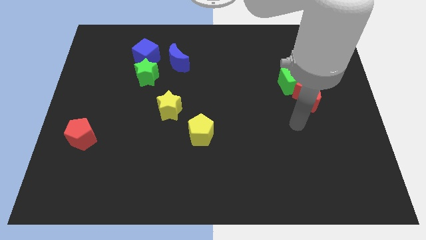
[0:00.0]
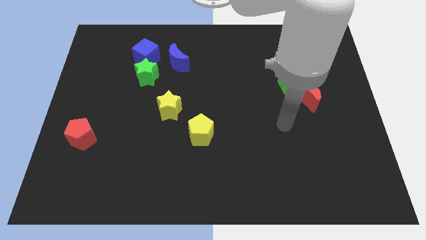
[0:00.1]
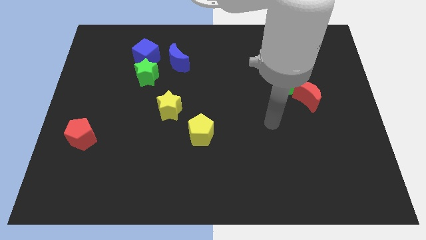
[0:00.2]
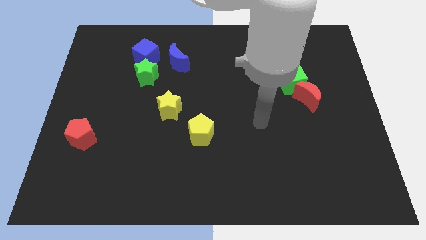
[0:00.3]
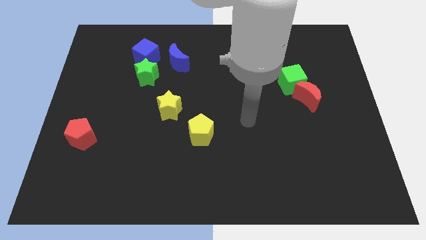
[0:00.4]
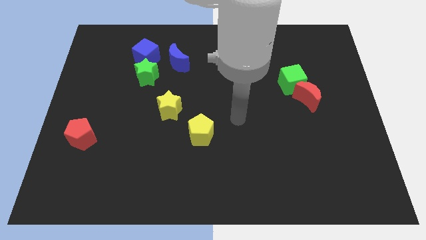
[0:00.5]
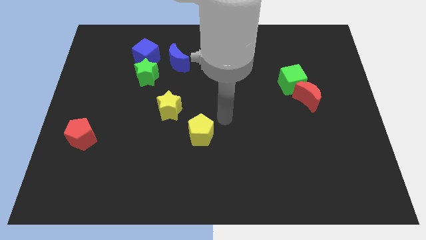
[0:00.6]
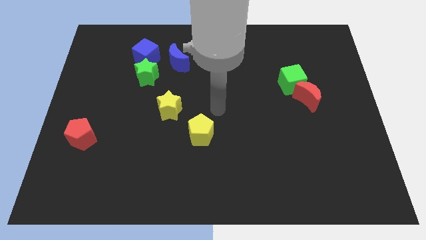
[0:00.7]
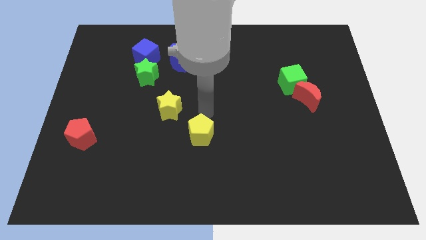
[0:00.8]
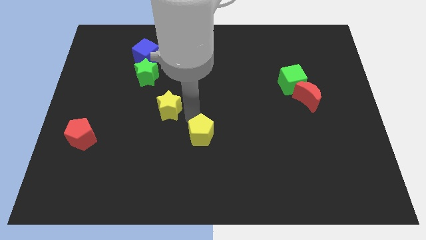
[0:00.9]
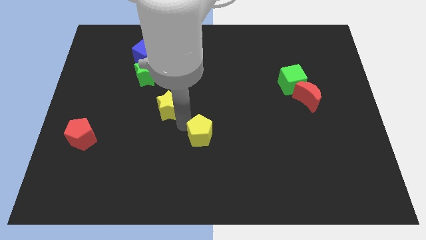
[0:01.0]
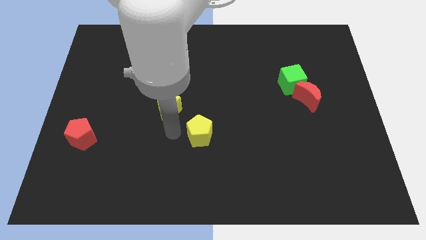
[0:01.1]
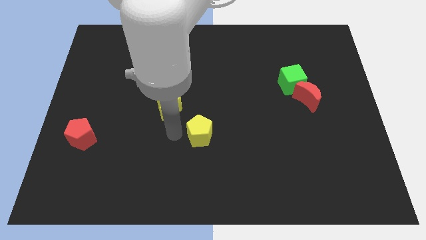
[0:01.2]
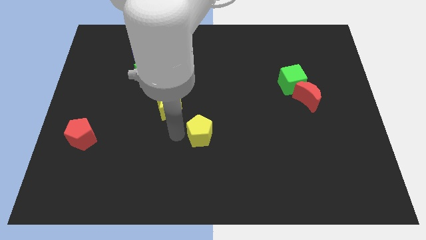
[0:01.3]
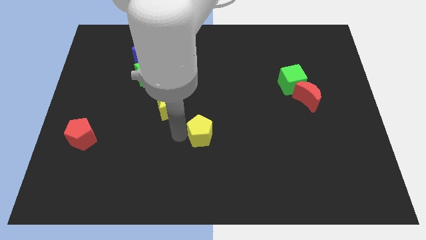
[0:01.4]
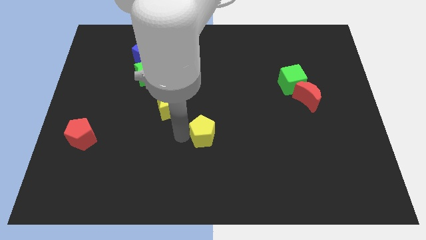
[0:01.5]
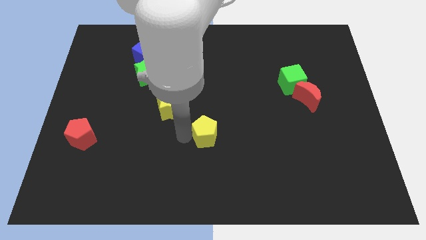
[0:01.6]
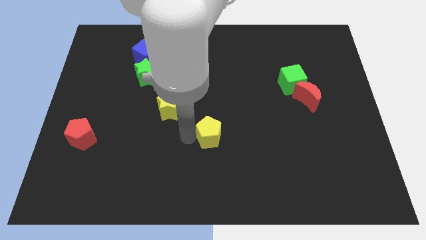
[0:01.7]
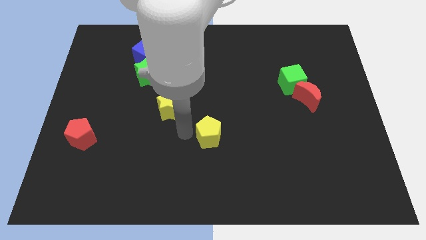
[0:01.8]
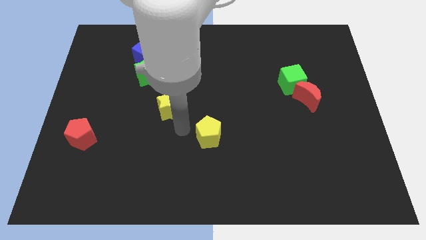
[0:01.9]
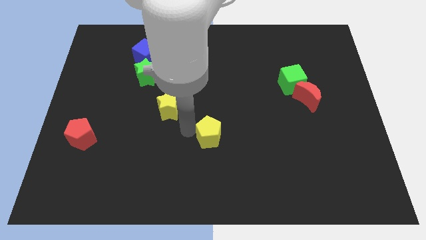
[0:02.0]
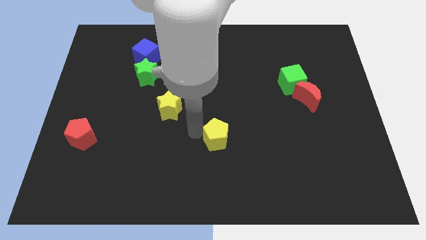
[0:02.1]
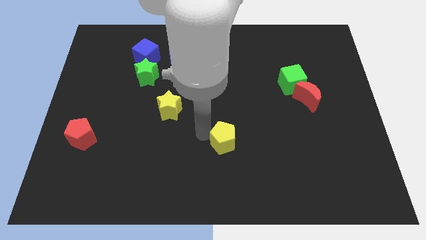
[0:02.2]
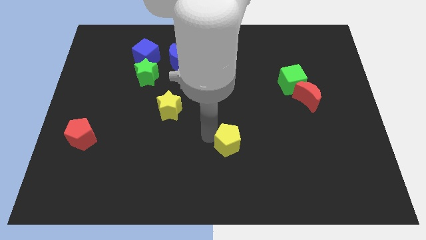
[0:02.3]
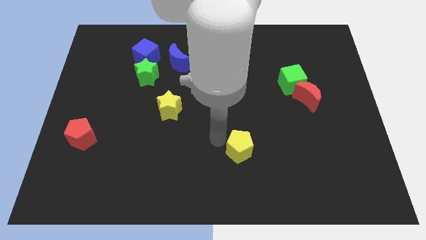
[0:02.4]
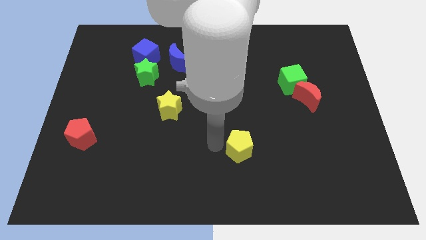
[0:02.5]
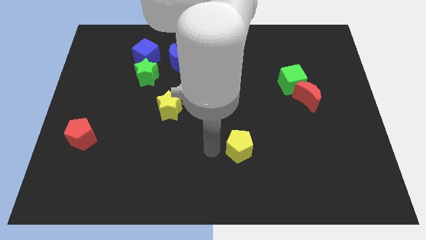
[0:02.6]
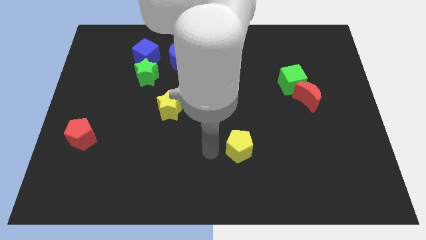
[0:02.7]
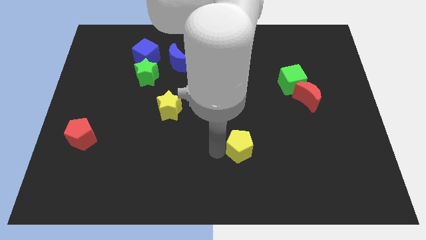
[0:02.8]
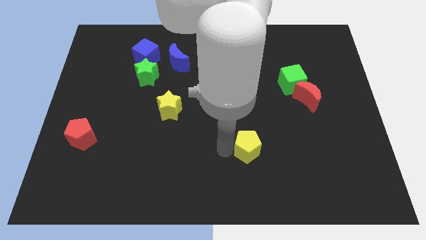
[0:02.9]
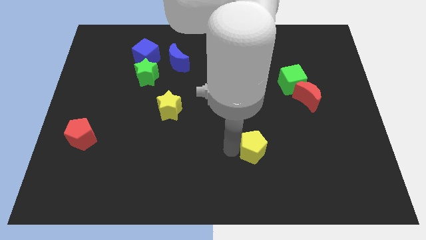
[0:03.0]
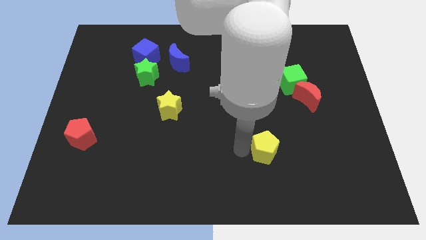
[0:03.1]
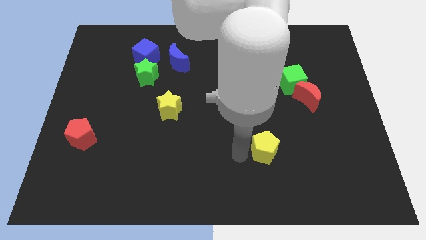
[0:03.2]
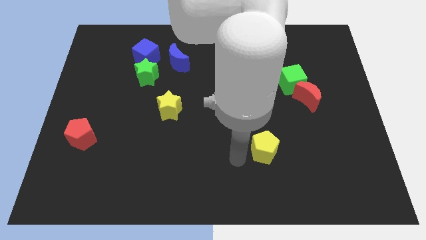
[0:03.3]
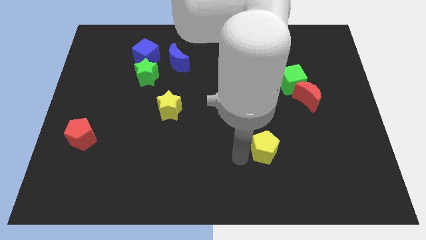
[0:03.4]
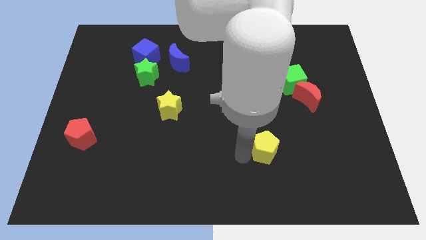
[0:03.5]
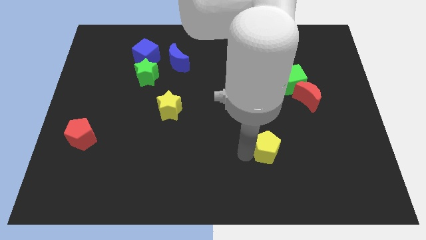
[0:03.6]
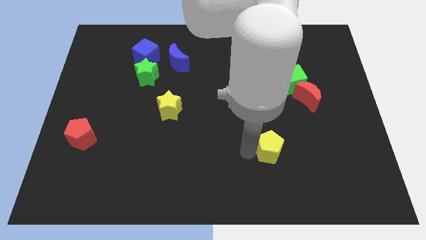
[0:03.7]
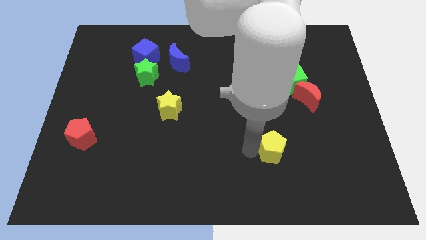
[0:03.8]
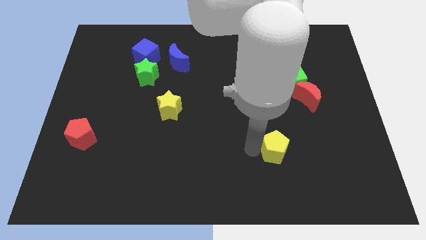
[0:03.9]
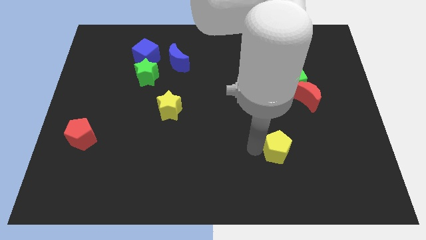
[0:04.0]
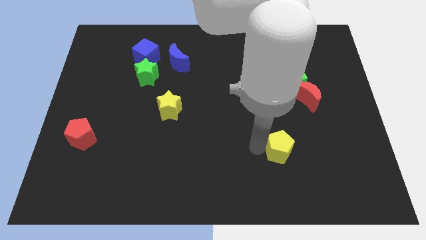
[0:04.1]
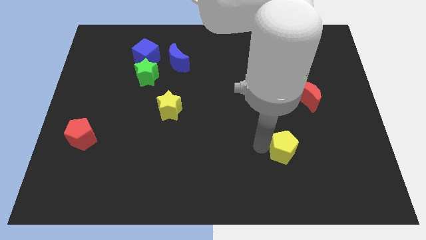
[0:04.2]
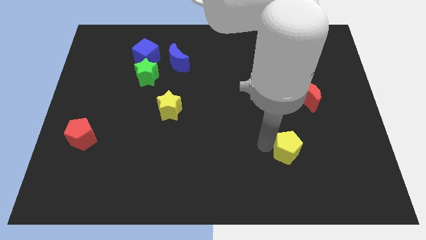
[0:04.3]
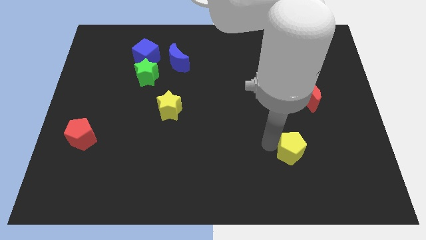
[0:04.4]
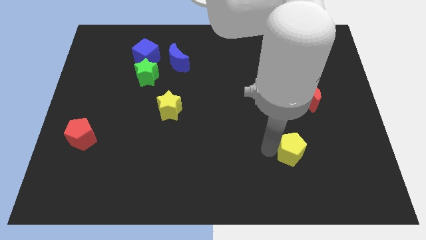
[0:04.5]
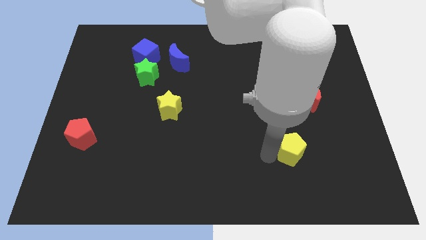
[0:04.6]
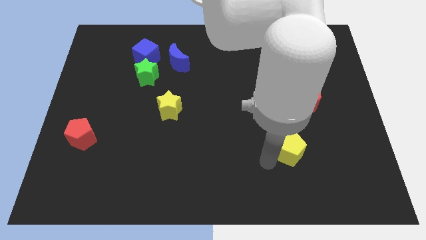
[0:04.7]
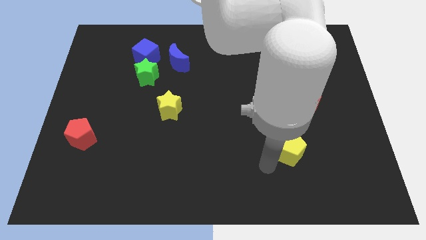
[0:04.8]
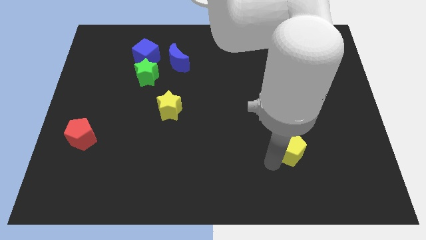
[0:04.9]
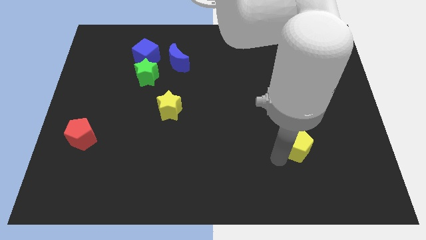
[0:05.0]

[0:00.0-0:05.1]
slide the yellow pentagon to the bottom of the red moon

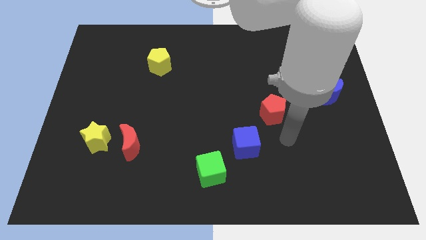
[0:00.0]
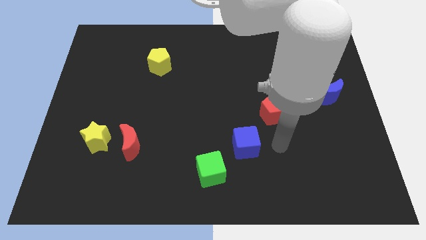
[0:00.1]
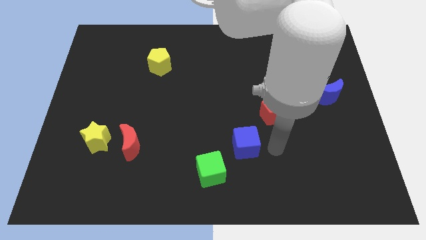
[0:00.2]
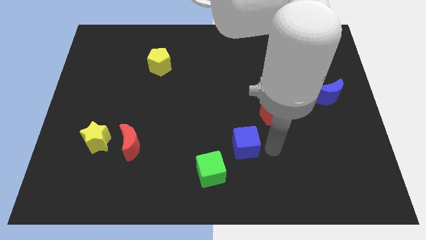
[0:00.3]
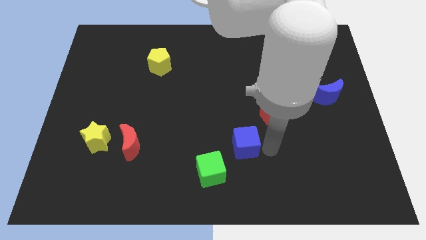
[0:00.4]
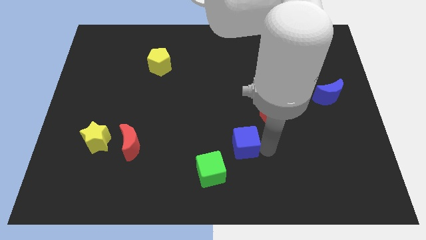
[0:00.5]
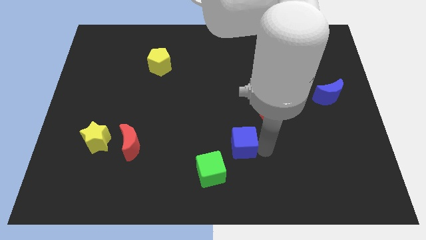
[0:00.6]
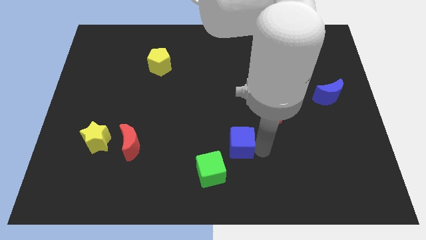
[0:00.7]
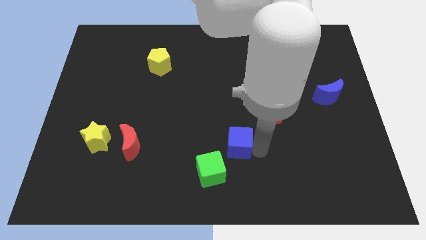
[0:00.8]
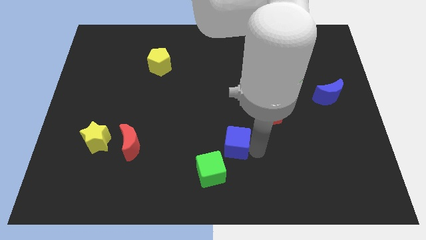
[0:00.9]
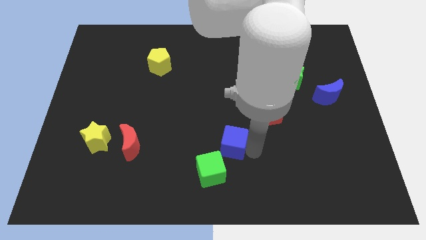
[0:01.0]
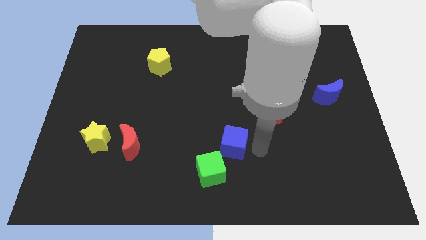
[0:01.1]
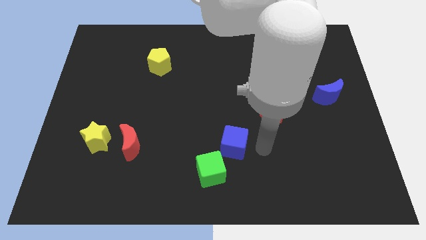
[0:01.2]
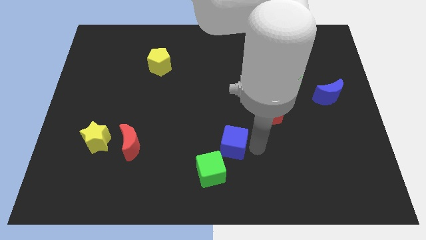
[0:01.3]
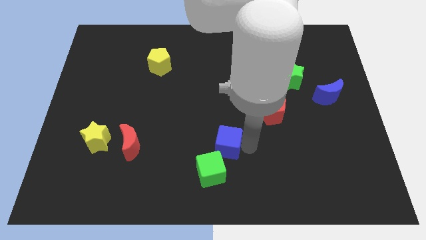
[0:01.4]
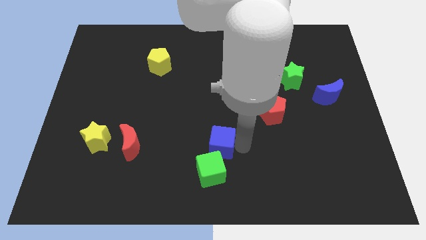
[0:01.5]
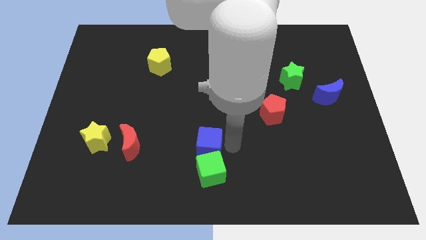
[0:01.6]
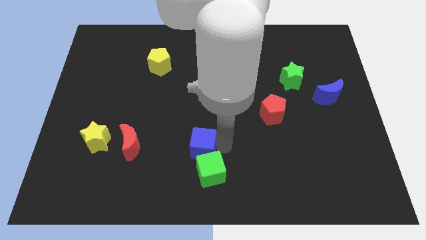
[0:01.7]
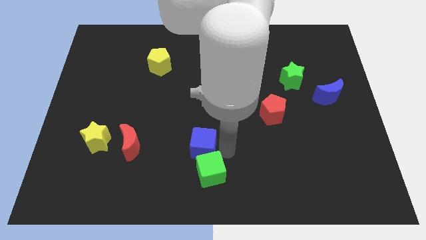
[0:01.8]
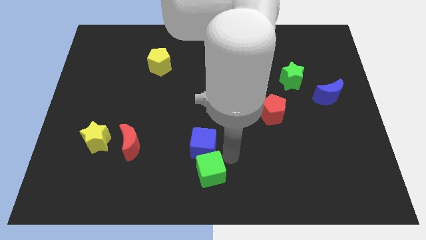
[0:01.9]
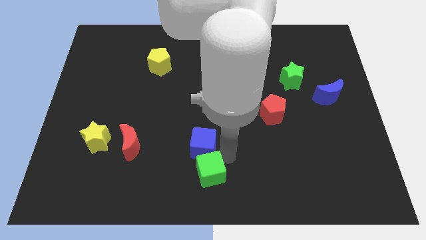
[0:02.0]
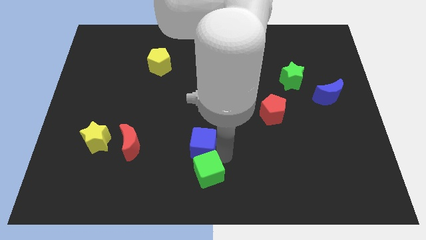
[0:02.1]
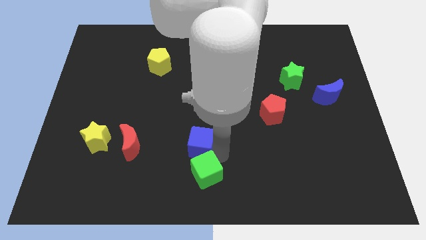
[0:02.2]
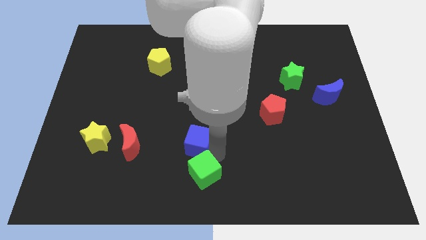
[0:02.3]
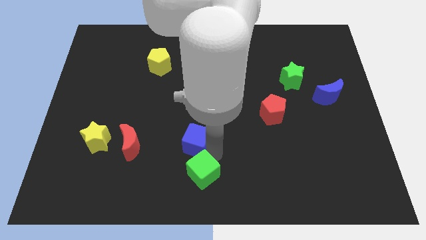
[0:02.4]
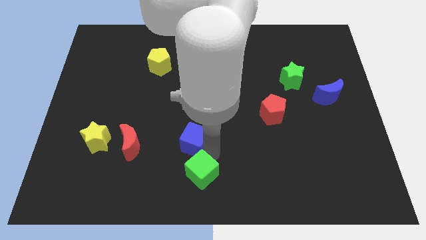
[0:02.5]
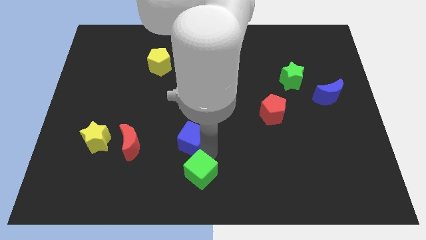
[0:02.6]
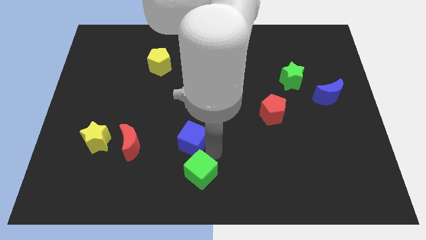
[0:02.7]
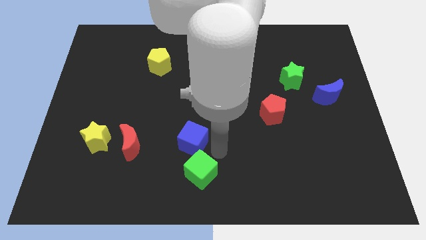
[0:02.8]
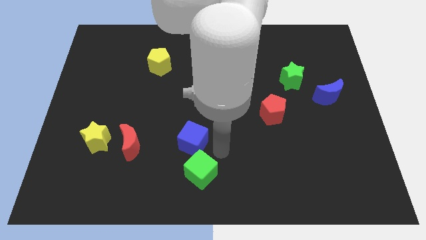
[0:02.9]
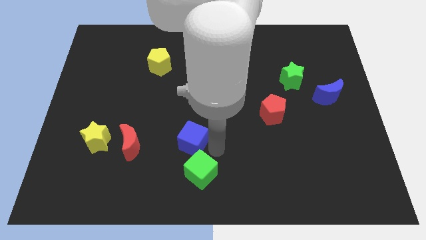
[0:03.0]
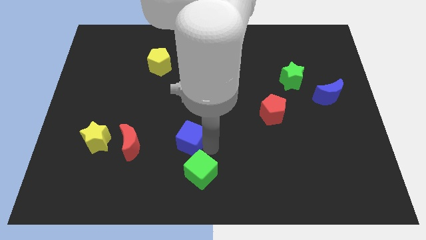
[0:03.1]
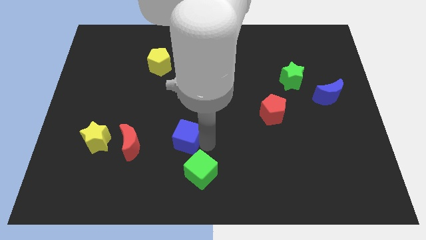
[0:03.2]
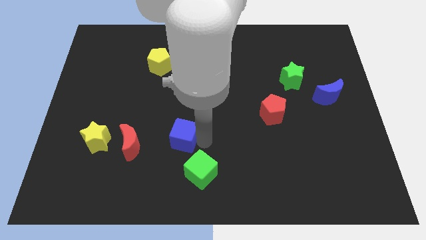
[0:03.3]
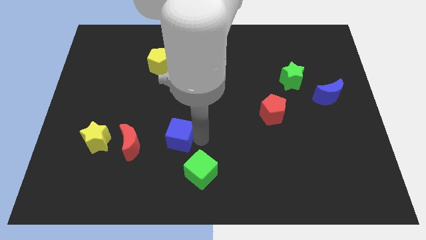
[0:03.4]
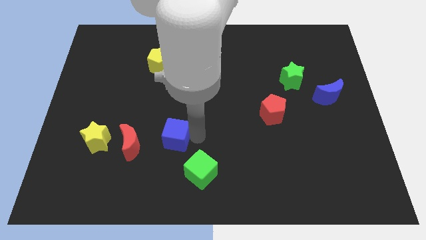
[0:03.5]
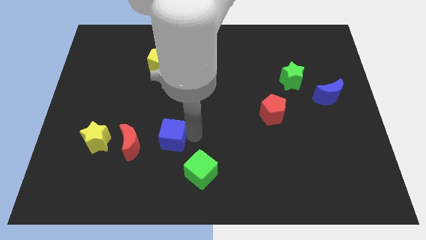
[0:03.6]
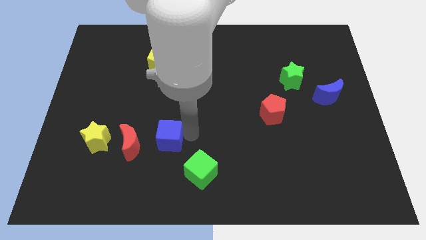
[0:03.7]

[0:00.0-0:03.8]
push the blue cube to the right side of the yellow star
